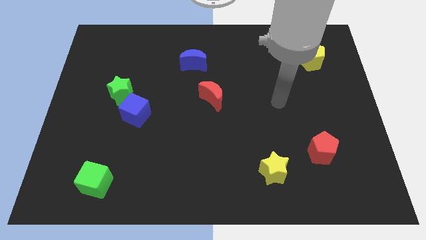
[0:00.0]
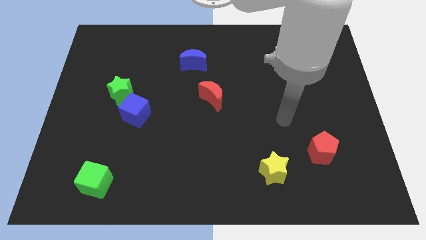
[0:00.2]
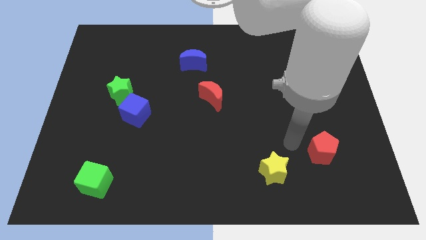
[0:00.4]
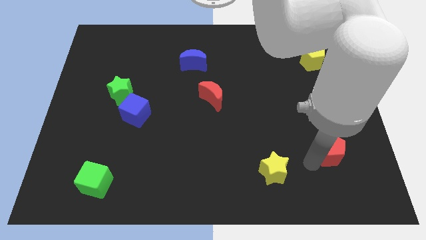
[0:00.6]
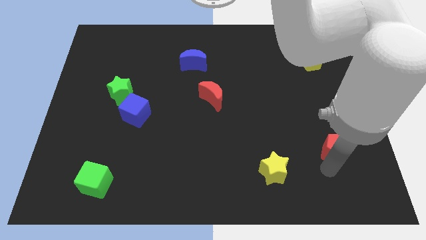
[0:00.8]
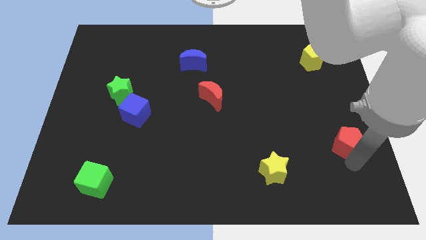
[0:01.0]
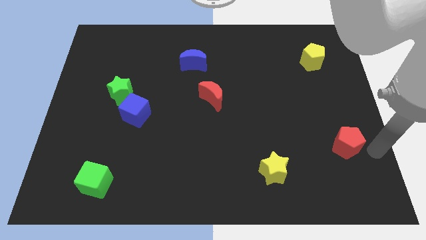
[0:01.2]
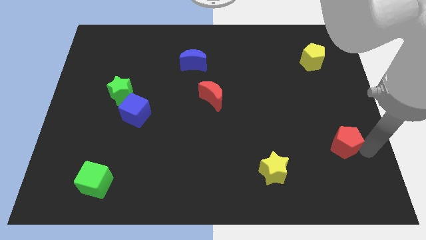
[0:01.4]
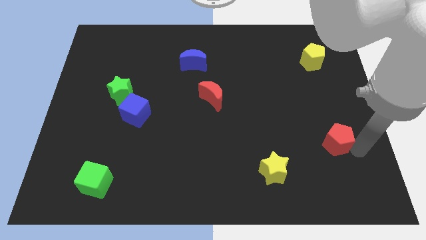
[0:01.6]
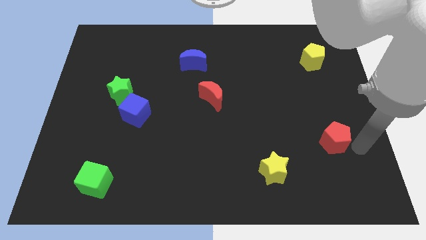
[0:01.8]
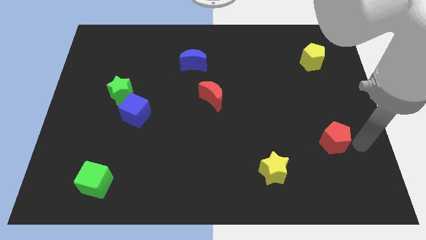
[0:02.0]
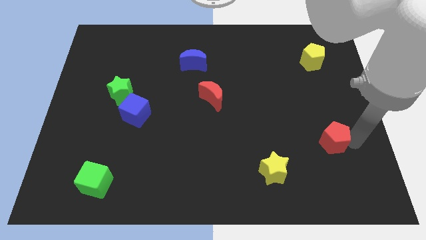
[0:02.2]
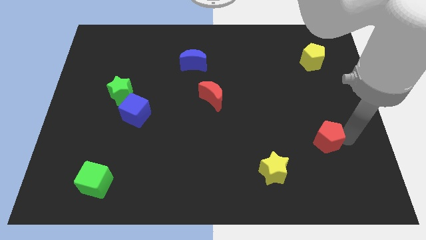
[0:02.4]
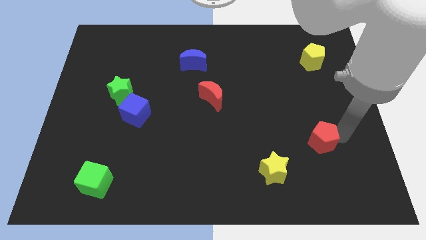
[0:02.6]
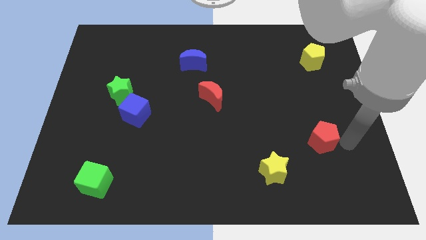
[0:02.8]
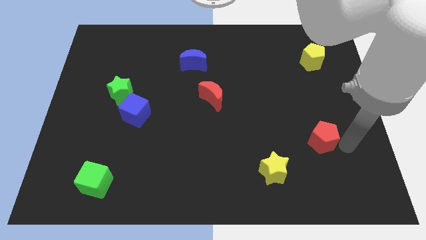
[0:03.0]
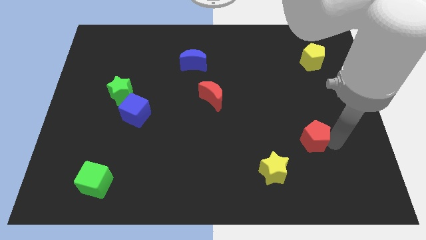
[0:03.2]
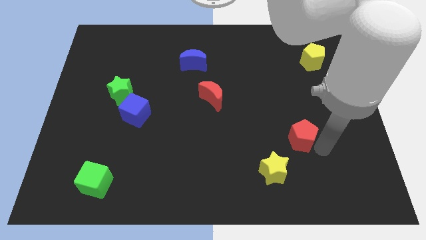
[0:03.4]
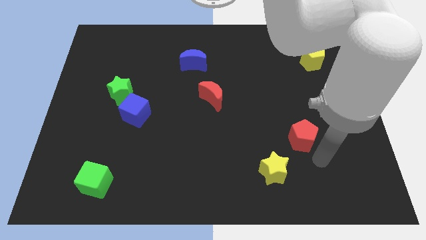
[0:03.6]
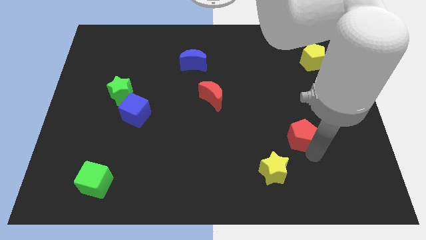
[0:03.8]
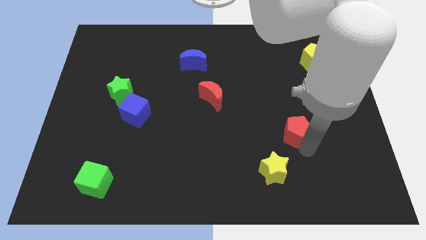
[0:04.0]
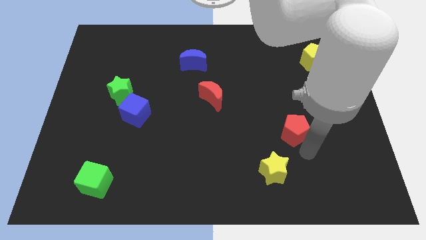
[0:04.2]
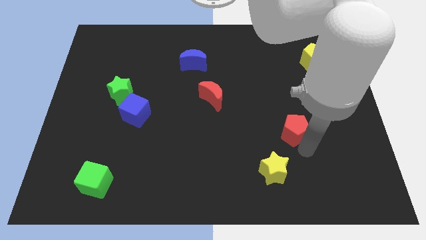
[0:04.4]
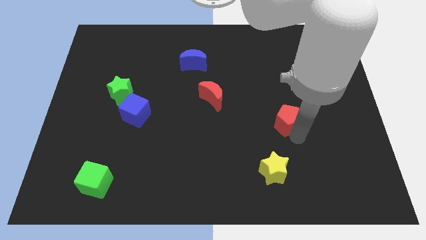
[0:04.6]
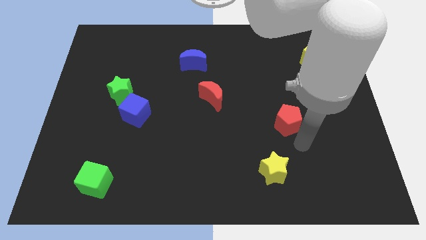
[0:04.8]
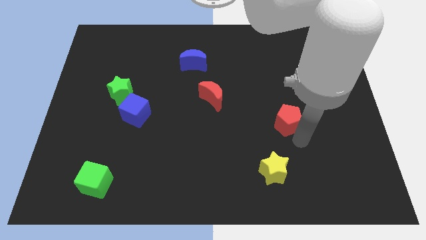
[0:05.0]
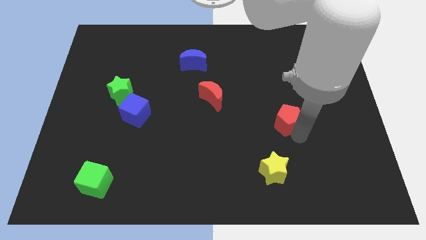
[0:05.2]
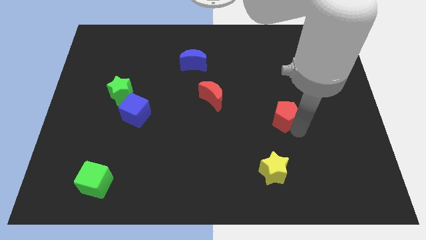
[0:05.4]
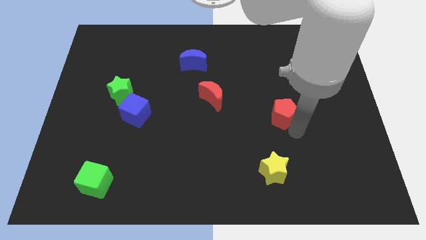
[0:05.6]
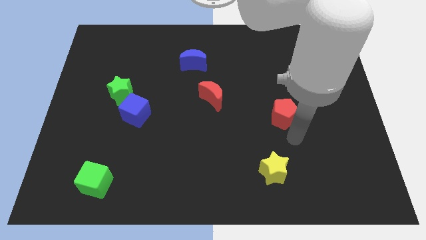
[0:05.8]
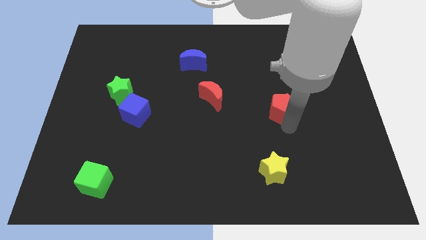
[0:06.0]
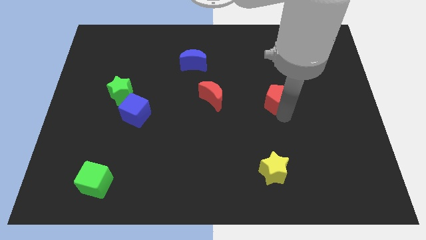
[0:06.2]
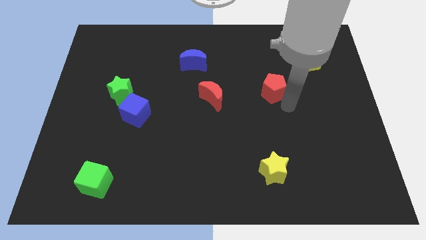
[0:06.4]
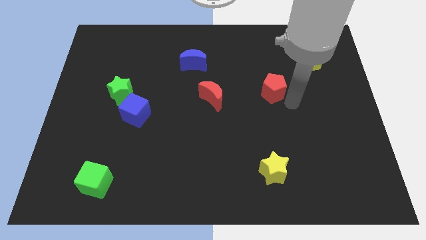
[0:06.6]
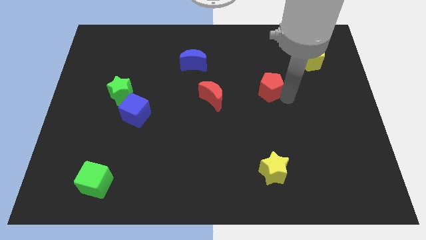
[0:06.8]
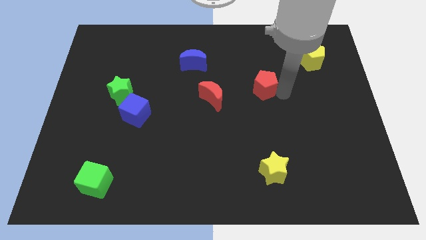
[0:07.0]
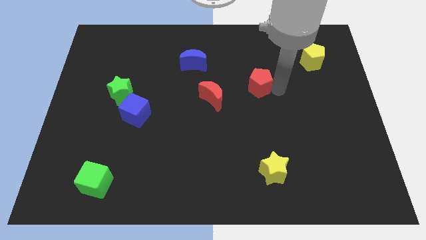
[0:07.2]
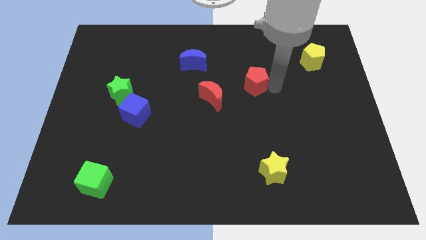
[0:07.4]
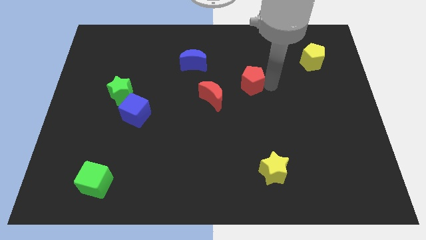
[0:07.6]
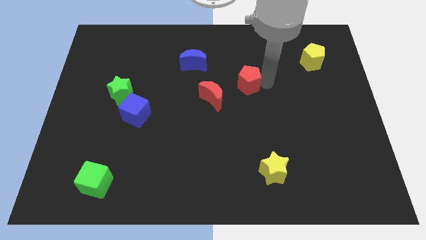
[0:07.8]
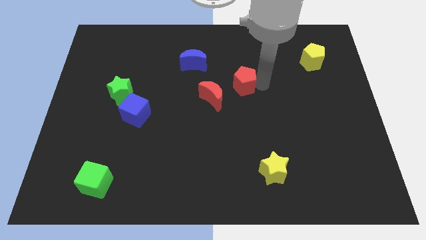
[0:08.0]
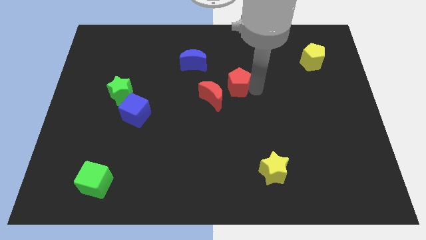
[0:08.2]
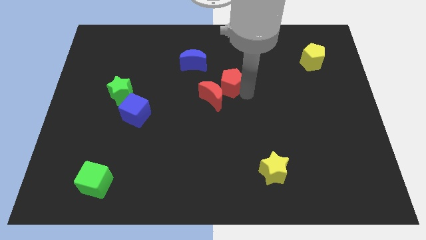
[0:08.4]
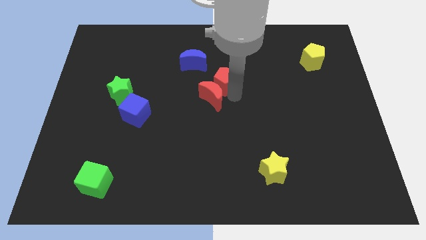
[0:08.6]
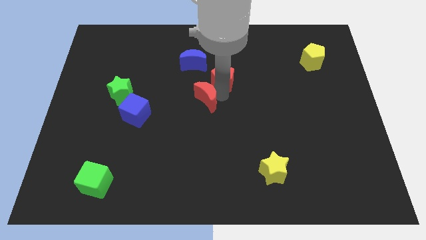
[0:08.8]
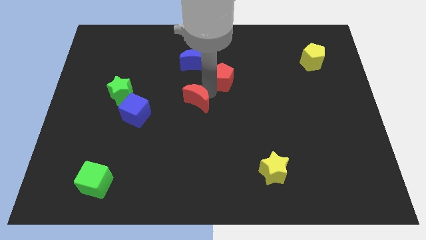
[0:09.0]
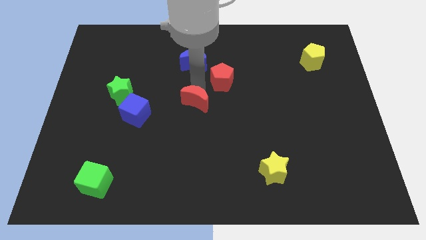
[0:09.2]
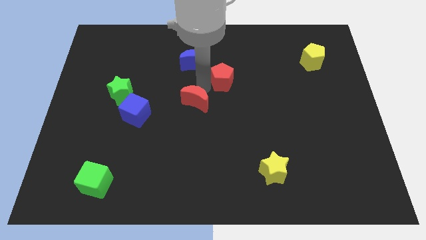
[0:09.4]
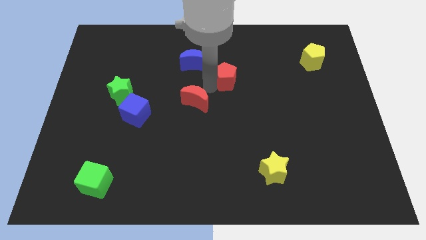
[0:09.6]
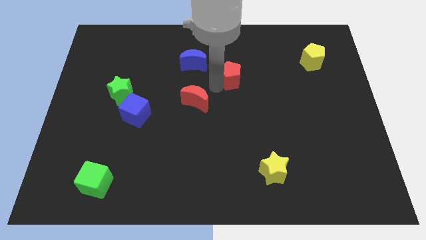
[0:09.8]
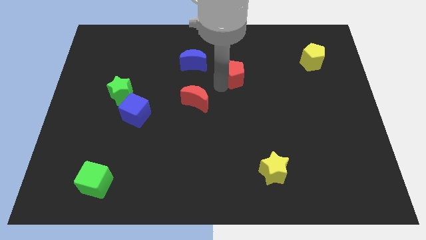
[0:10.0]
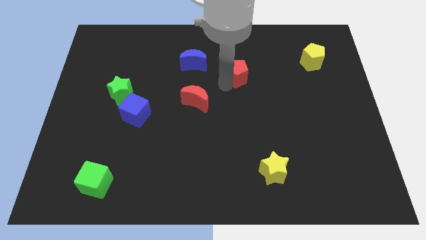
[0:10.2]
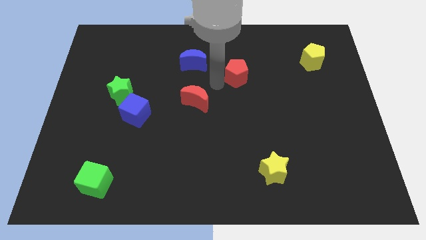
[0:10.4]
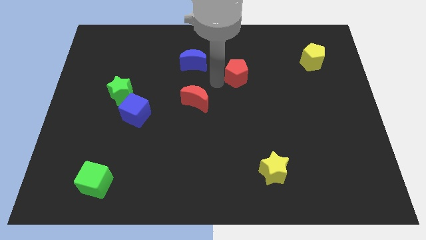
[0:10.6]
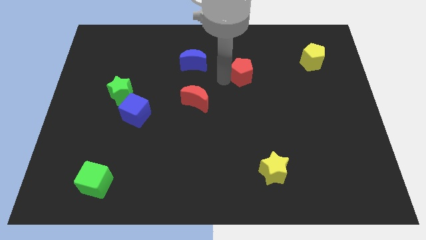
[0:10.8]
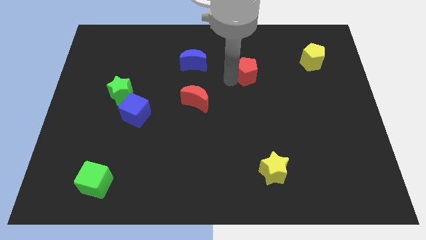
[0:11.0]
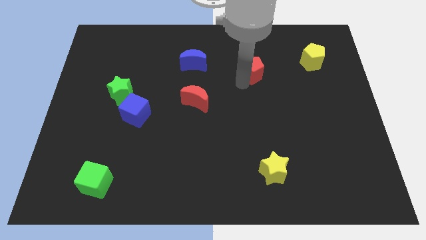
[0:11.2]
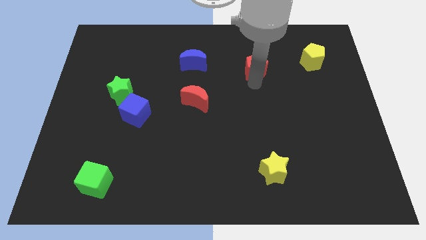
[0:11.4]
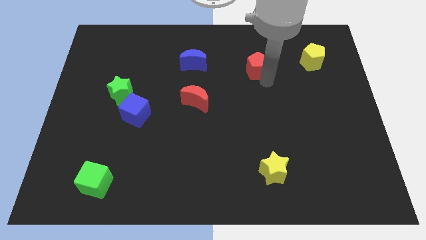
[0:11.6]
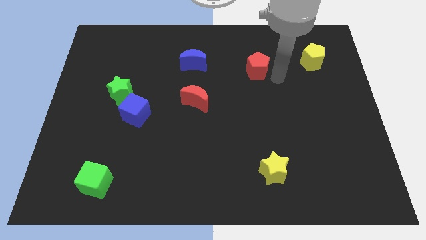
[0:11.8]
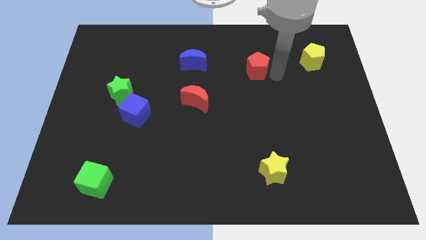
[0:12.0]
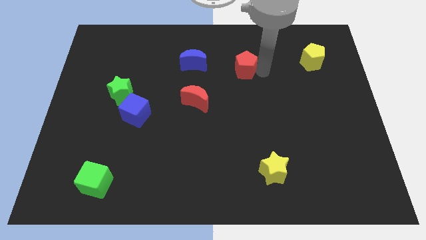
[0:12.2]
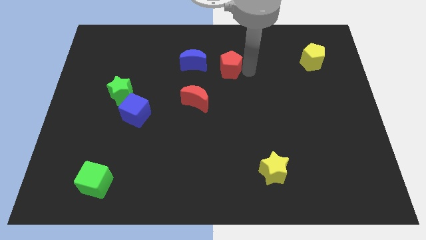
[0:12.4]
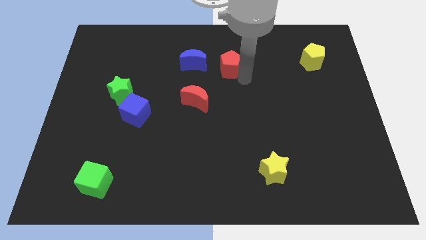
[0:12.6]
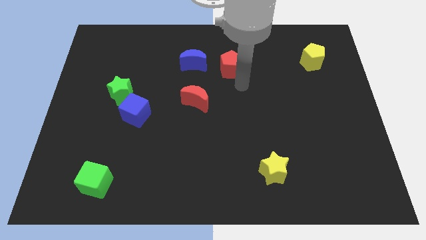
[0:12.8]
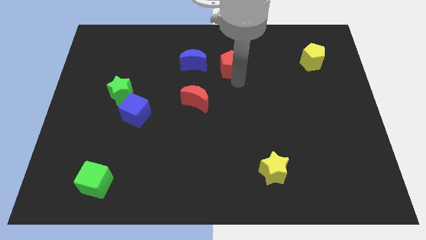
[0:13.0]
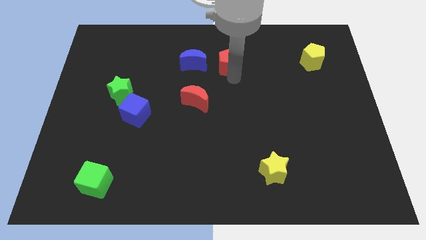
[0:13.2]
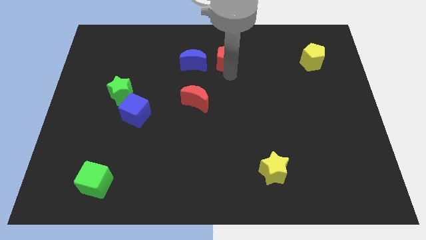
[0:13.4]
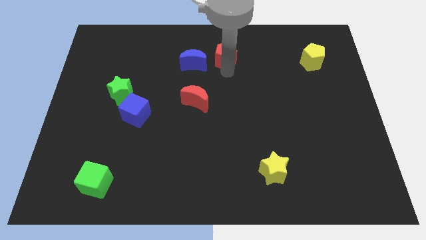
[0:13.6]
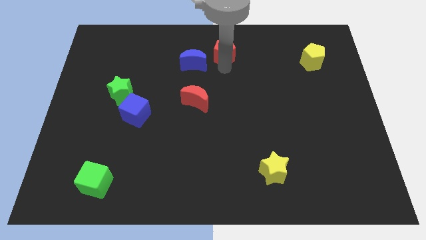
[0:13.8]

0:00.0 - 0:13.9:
put the red pentagon to the towards your base
